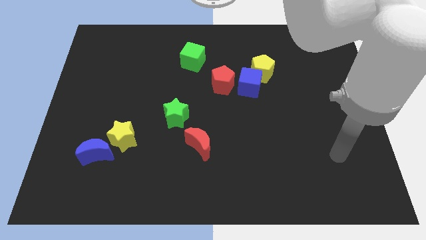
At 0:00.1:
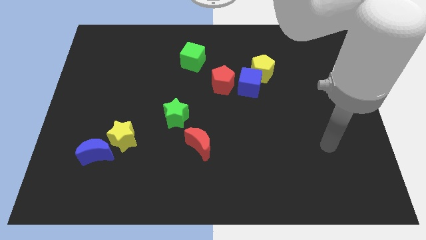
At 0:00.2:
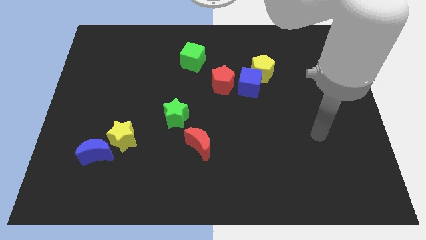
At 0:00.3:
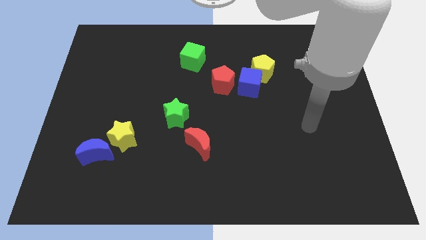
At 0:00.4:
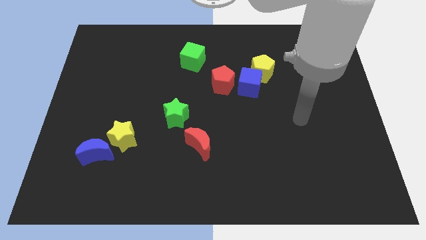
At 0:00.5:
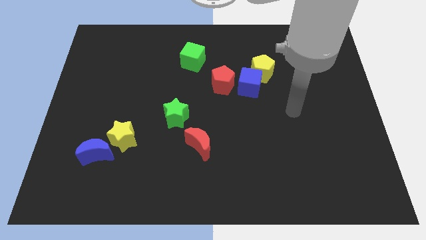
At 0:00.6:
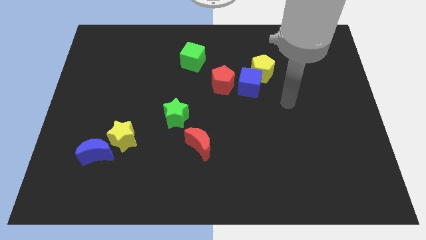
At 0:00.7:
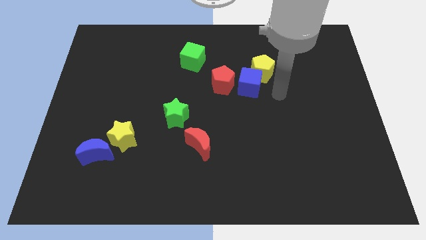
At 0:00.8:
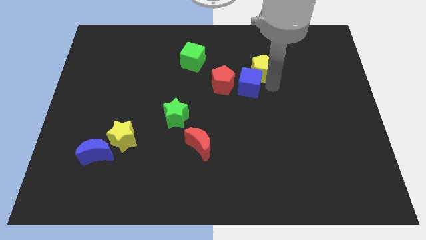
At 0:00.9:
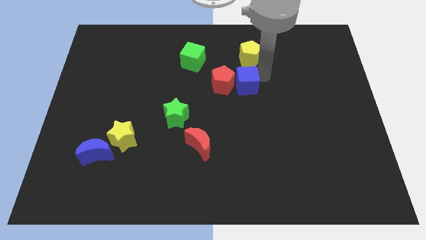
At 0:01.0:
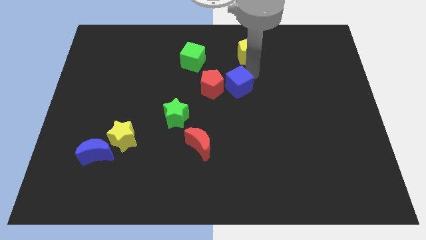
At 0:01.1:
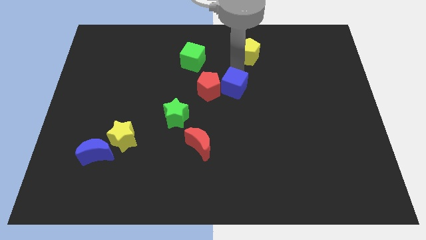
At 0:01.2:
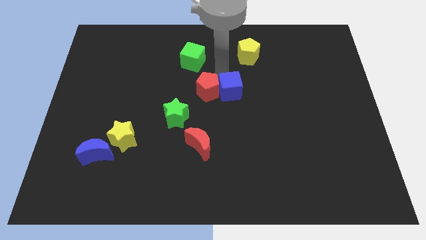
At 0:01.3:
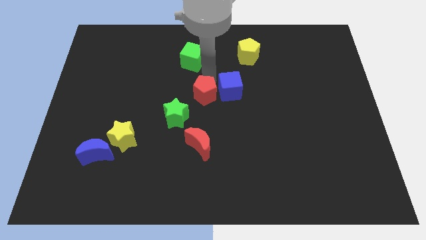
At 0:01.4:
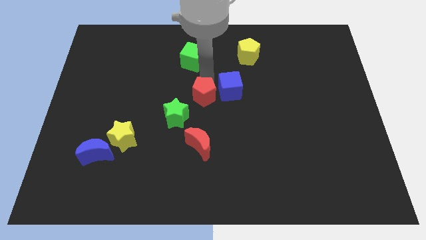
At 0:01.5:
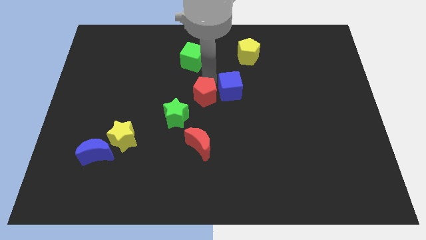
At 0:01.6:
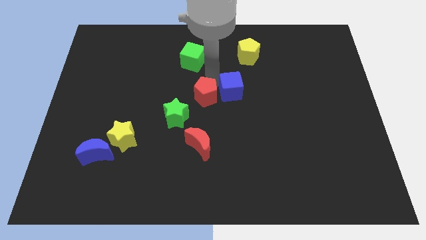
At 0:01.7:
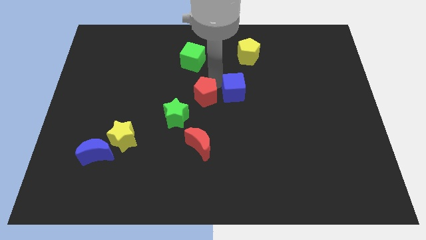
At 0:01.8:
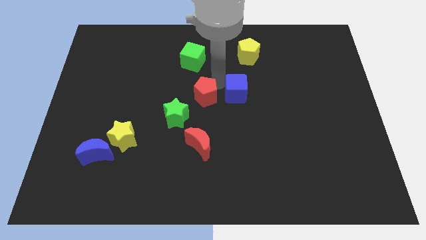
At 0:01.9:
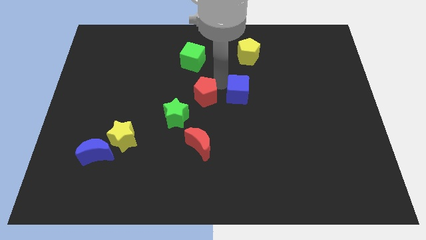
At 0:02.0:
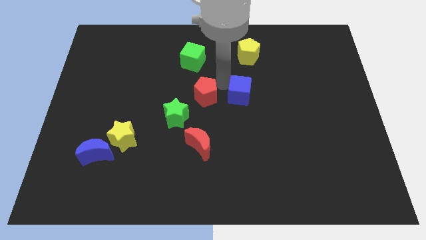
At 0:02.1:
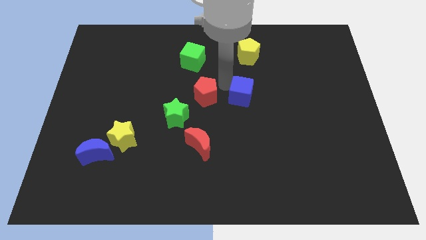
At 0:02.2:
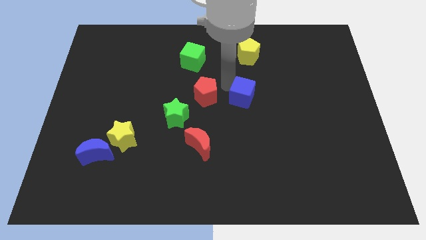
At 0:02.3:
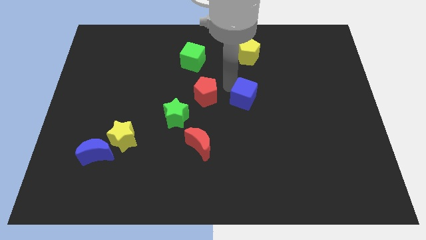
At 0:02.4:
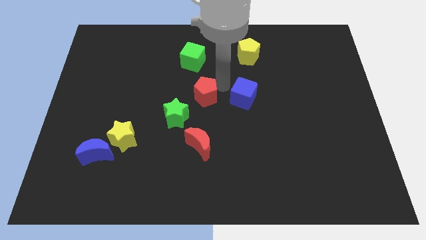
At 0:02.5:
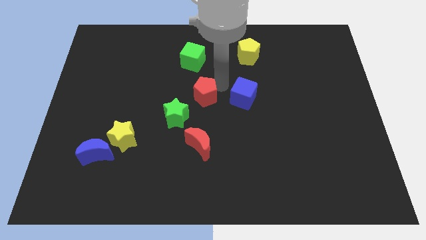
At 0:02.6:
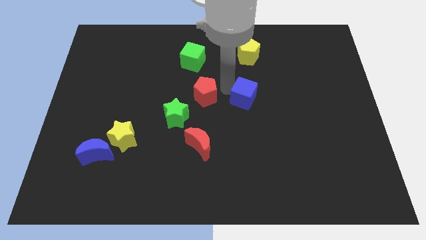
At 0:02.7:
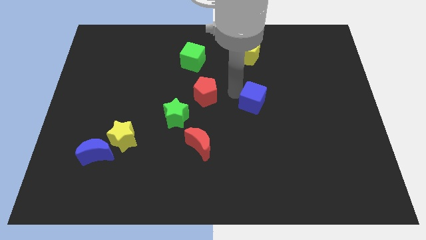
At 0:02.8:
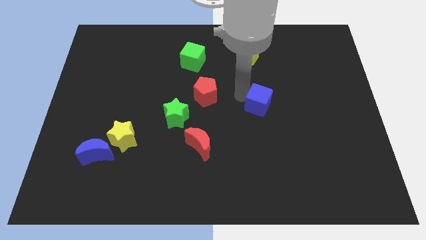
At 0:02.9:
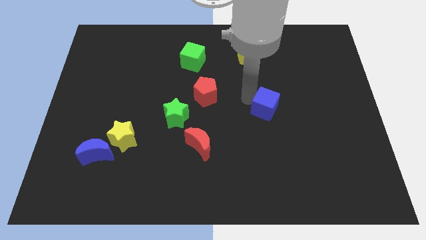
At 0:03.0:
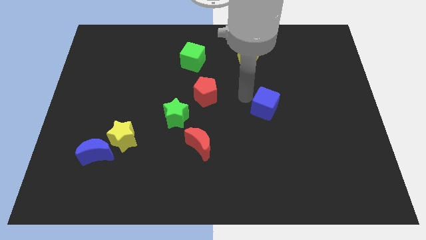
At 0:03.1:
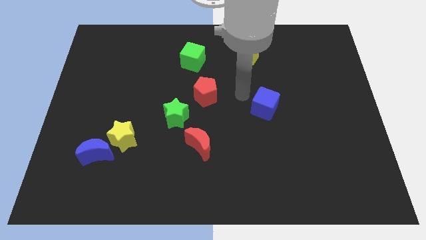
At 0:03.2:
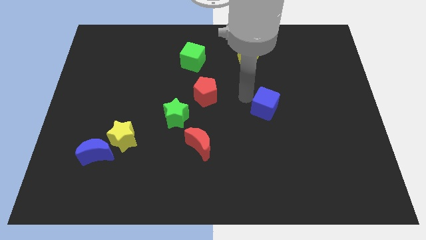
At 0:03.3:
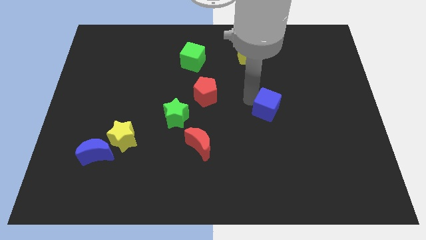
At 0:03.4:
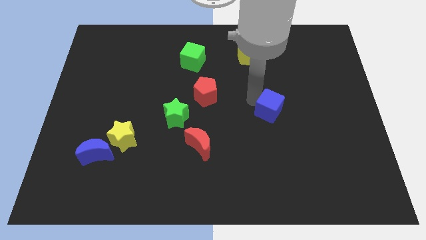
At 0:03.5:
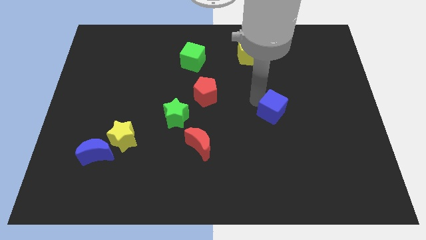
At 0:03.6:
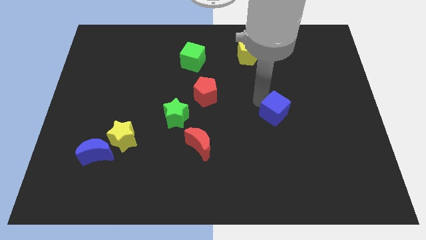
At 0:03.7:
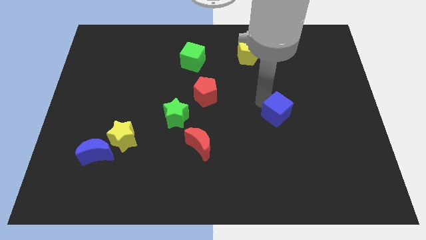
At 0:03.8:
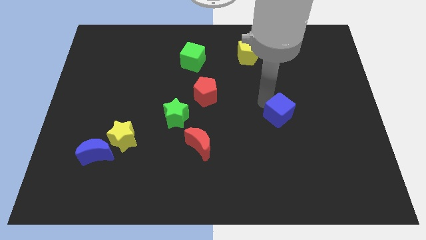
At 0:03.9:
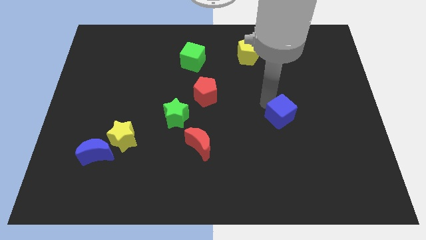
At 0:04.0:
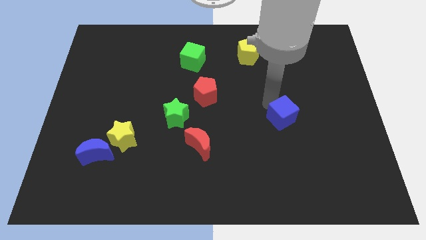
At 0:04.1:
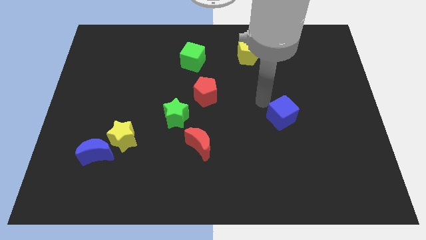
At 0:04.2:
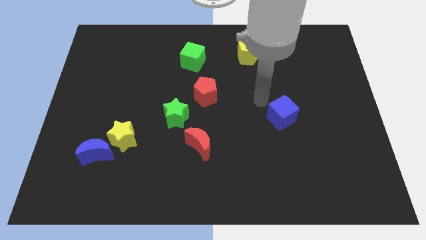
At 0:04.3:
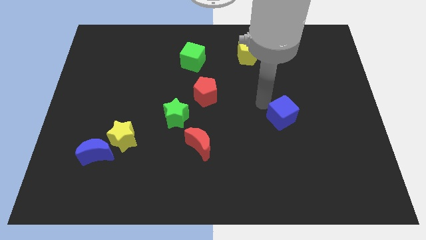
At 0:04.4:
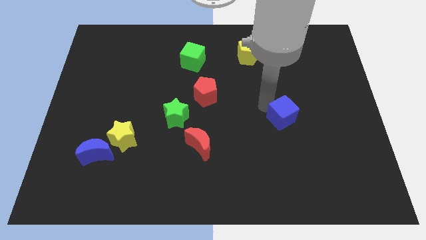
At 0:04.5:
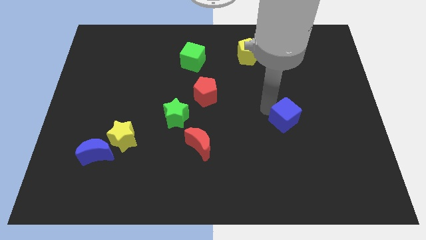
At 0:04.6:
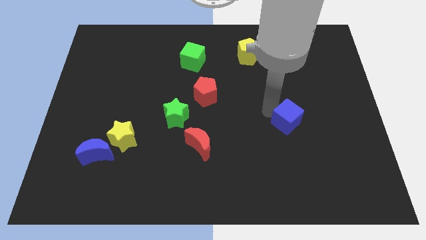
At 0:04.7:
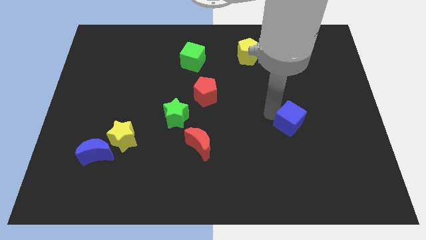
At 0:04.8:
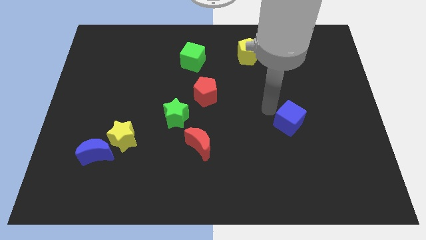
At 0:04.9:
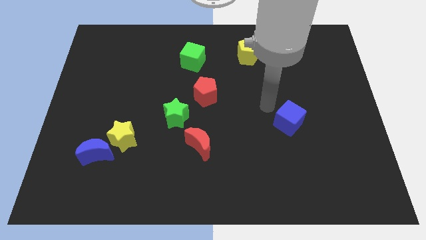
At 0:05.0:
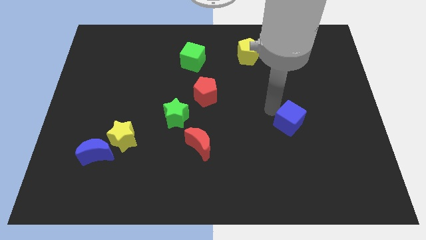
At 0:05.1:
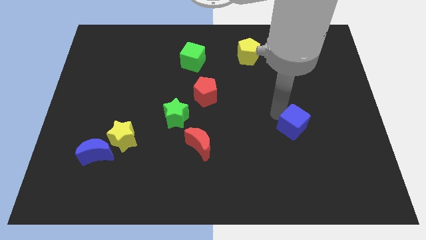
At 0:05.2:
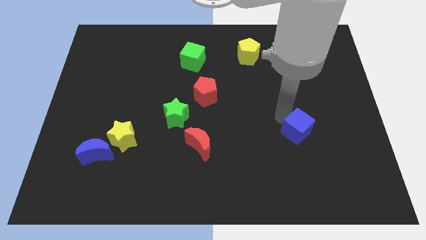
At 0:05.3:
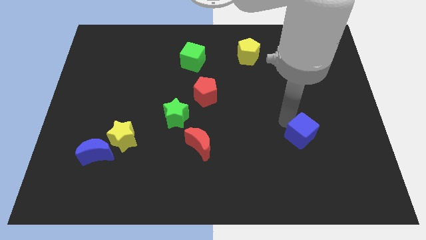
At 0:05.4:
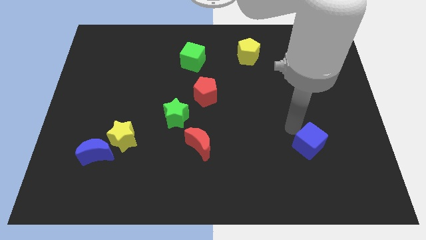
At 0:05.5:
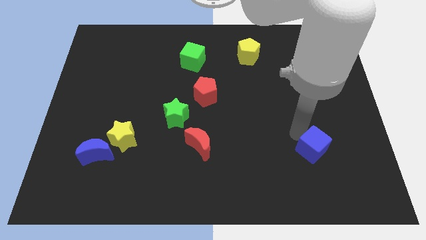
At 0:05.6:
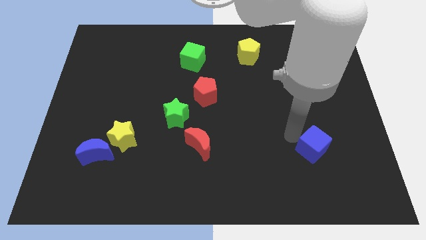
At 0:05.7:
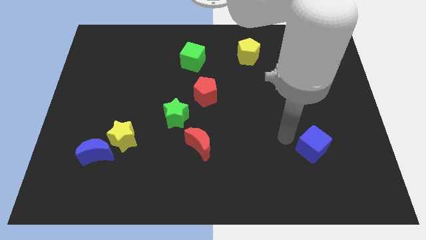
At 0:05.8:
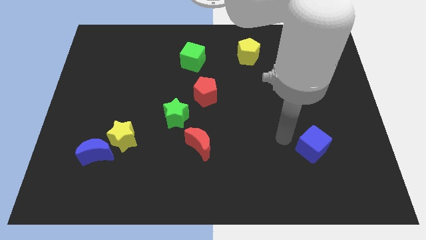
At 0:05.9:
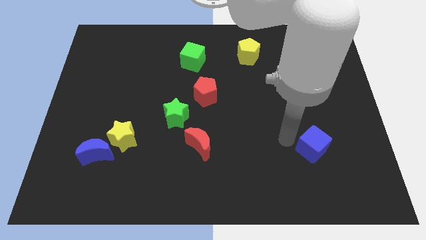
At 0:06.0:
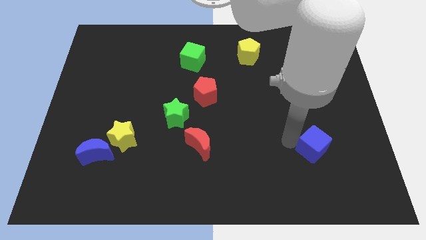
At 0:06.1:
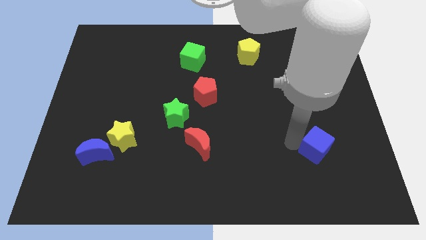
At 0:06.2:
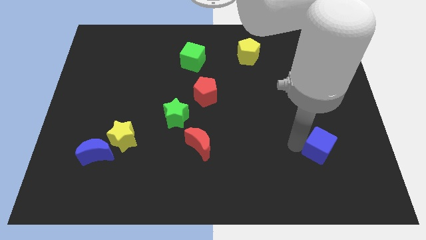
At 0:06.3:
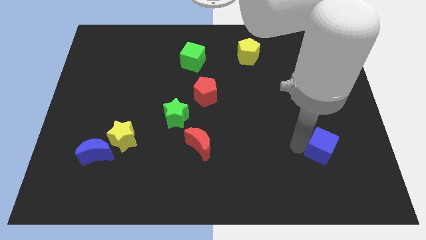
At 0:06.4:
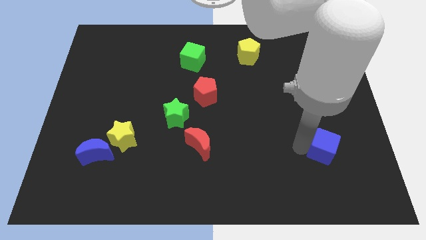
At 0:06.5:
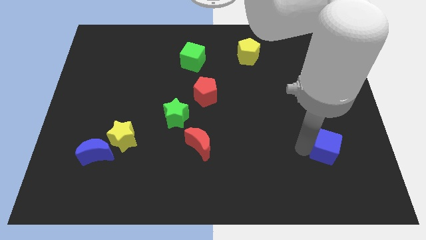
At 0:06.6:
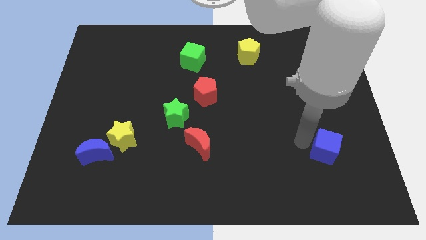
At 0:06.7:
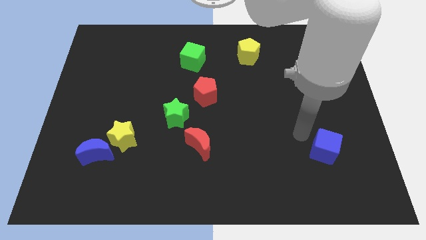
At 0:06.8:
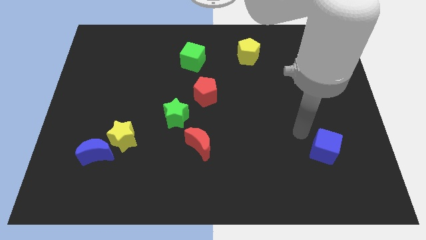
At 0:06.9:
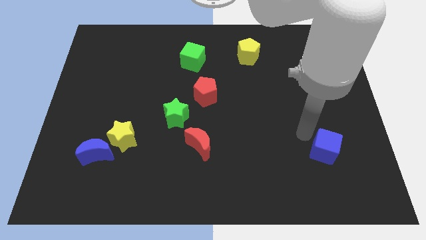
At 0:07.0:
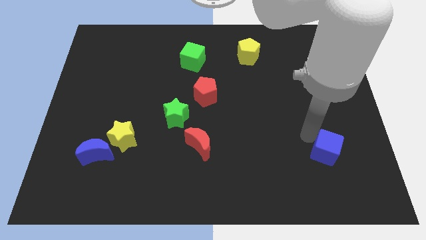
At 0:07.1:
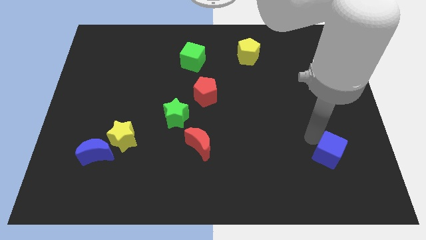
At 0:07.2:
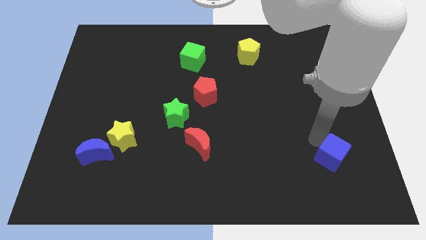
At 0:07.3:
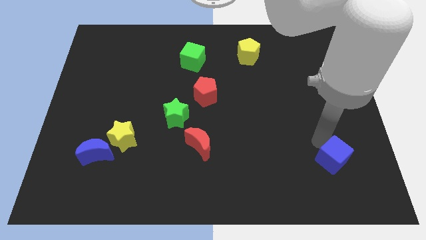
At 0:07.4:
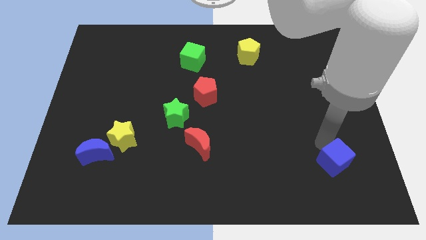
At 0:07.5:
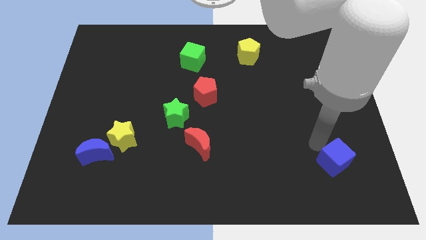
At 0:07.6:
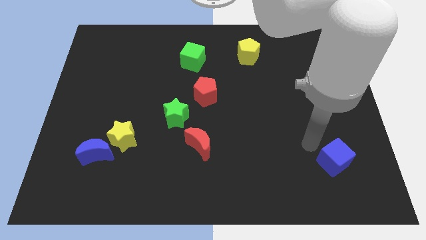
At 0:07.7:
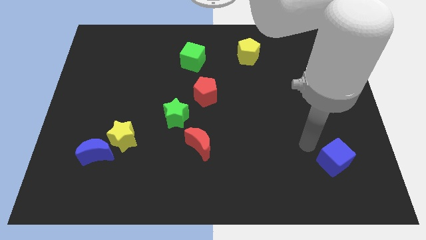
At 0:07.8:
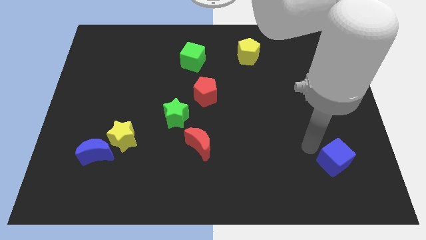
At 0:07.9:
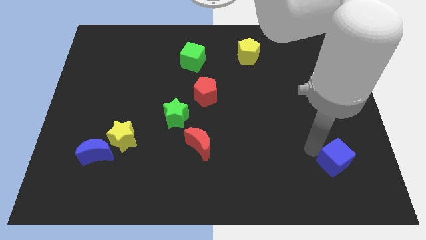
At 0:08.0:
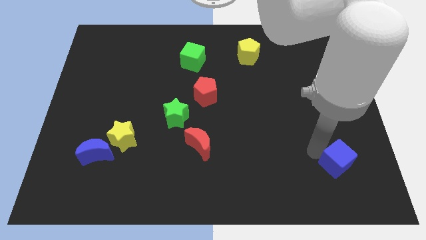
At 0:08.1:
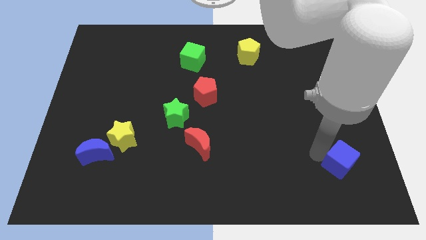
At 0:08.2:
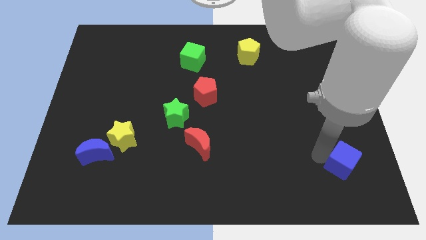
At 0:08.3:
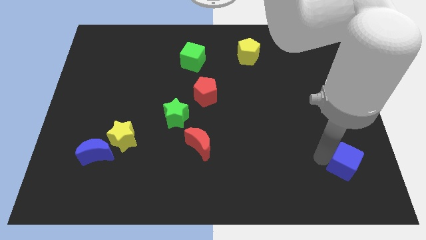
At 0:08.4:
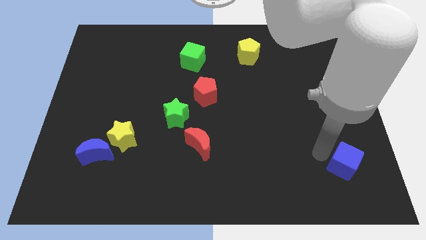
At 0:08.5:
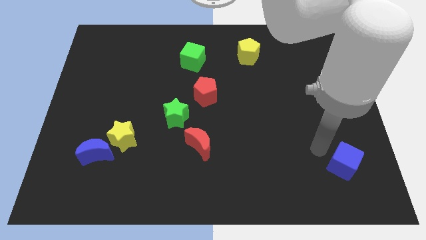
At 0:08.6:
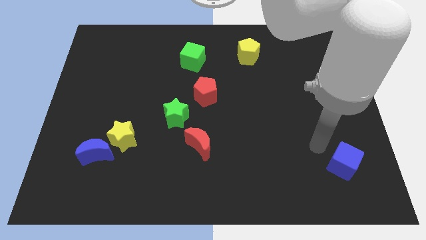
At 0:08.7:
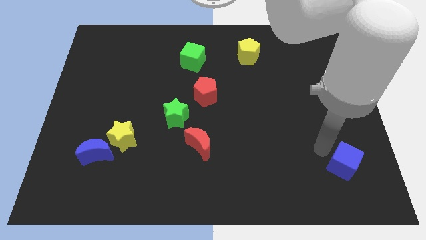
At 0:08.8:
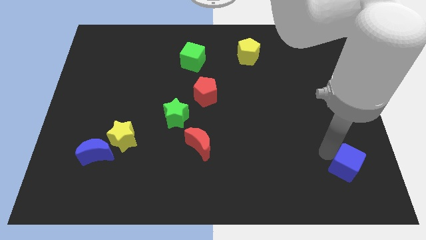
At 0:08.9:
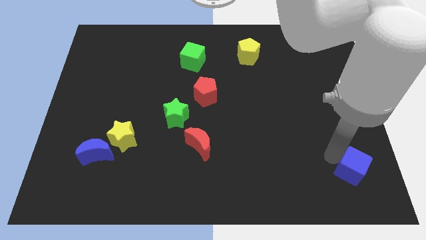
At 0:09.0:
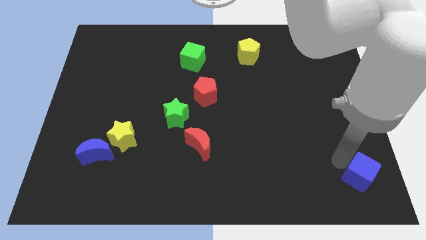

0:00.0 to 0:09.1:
move the blue cube to the bottom right of the board
